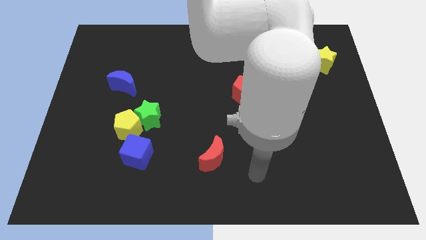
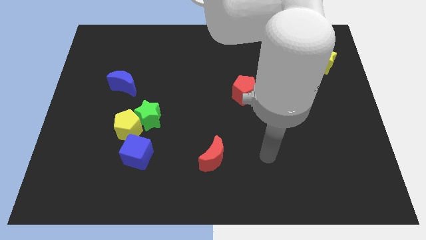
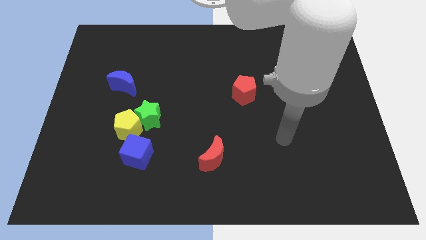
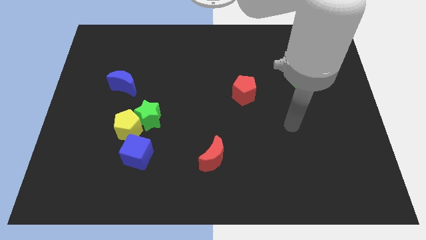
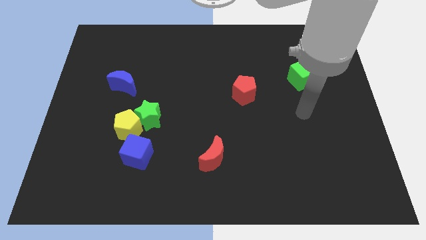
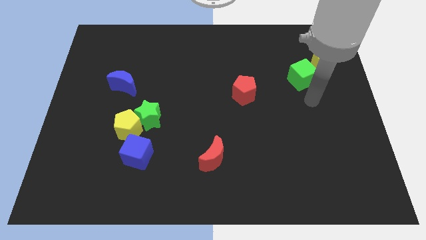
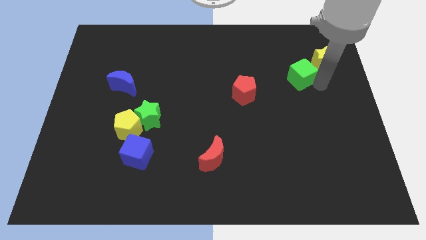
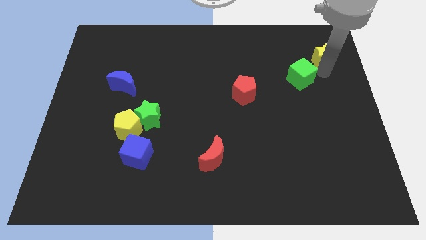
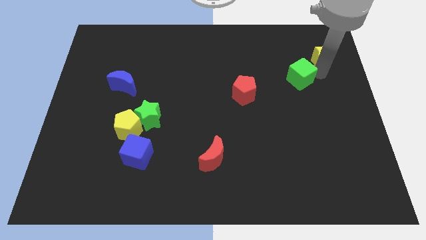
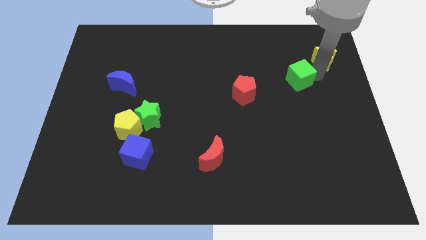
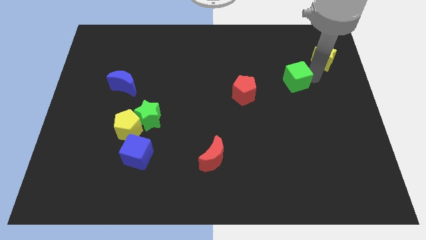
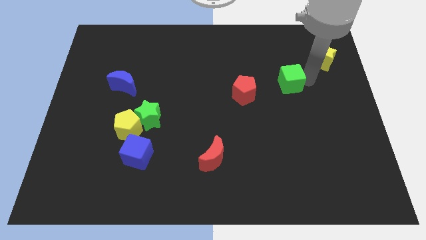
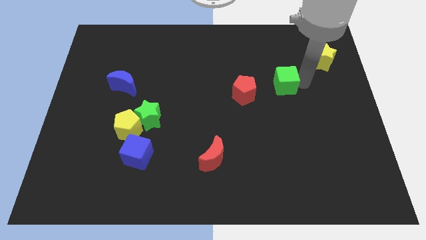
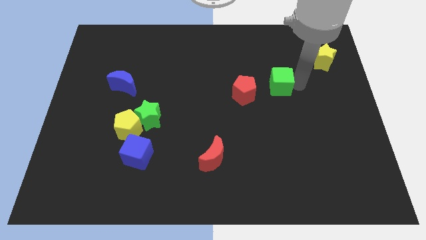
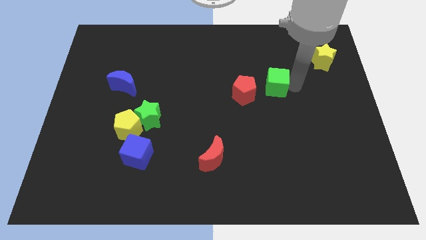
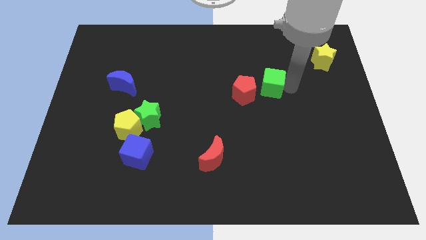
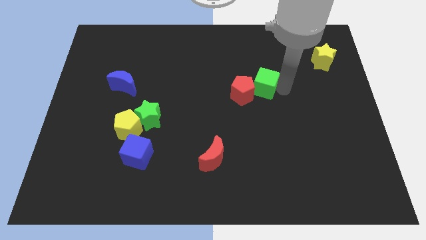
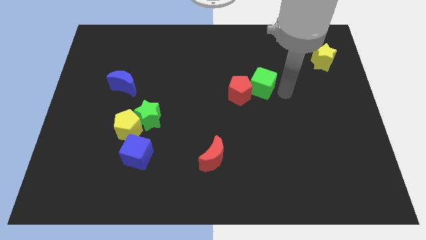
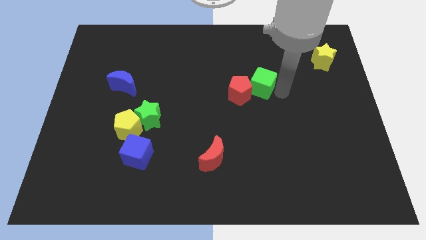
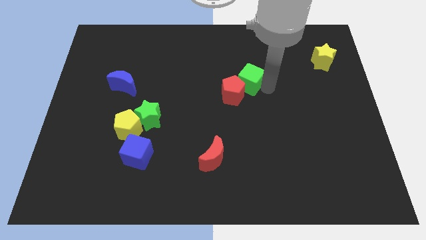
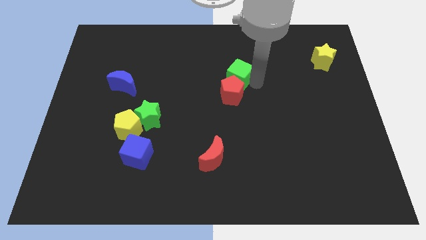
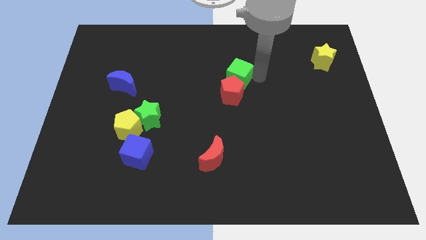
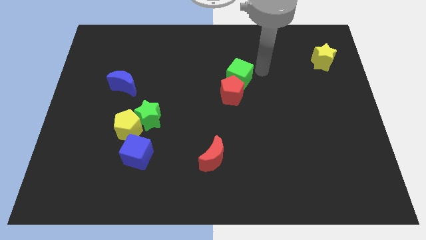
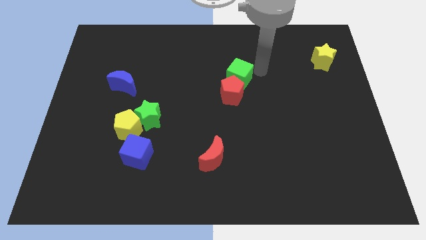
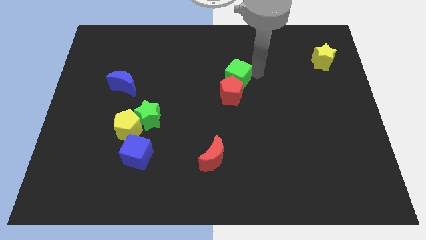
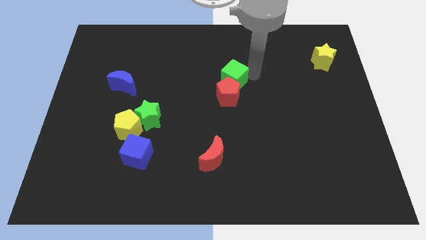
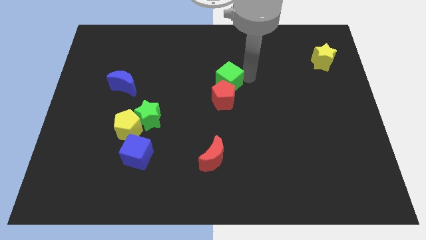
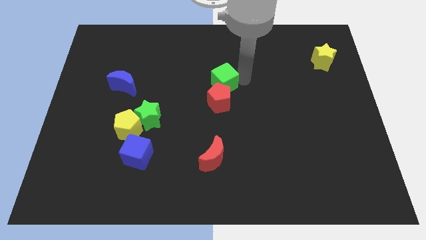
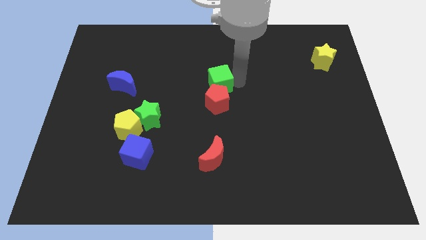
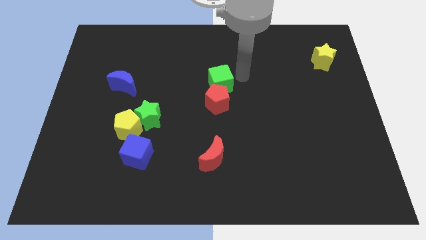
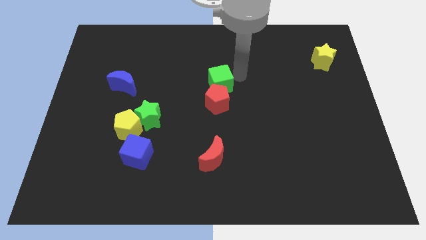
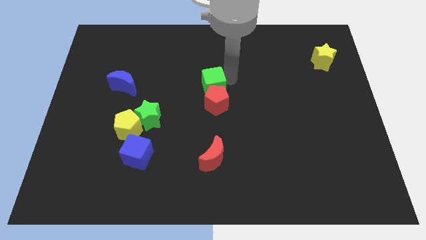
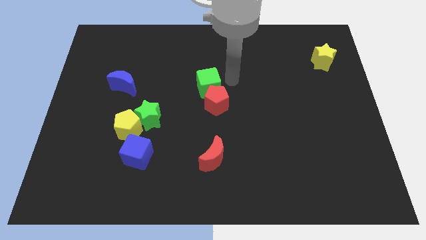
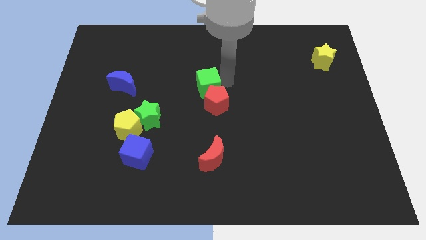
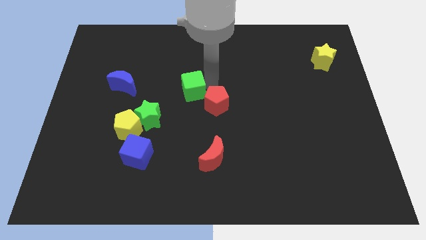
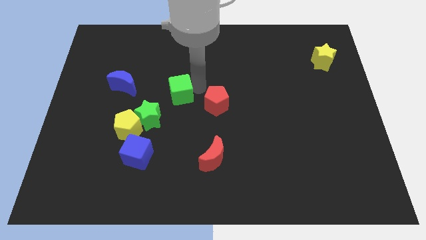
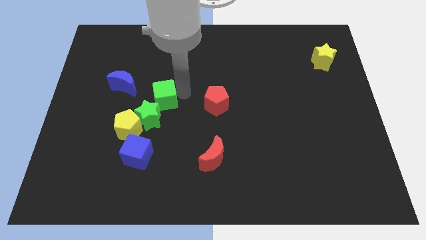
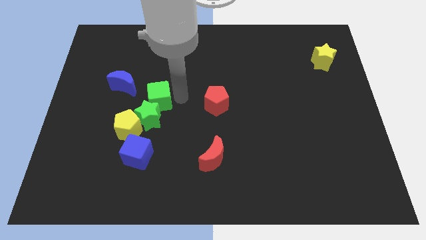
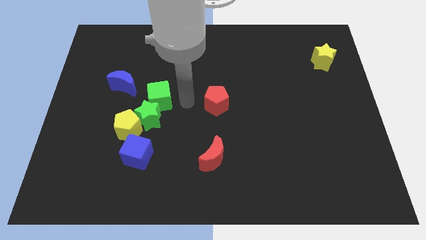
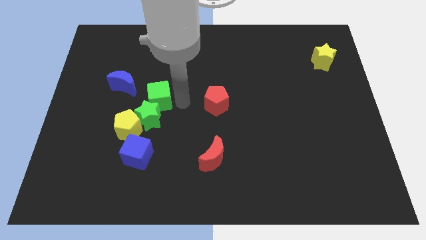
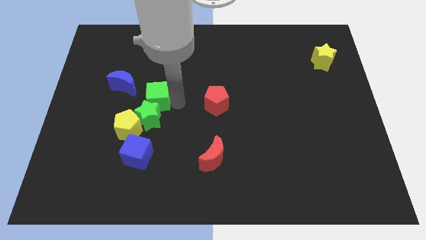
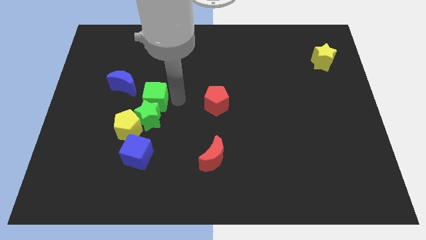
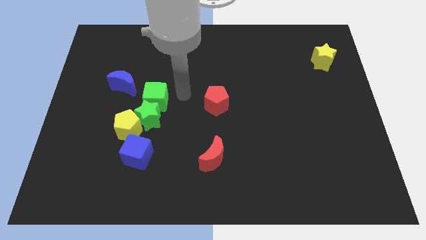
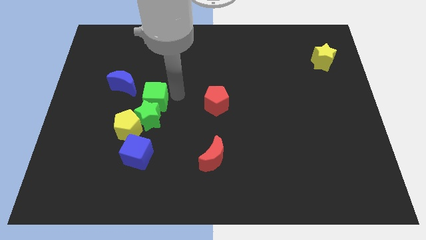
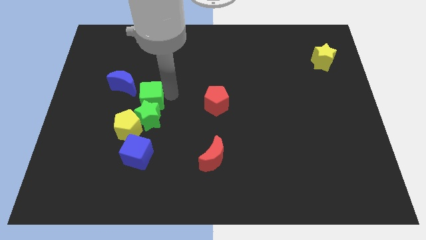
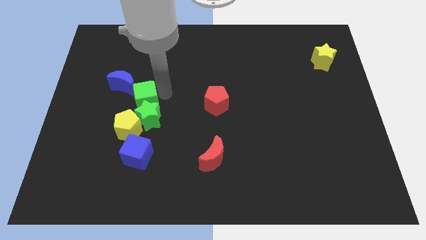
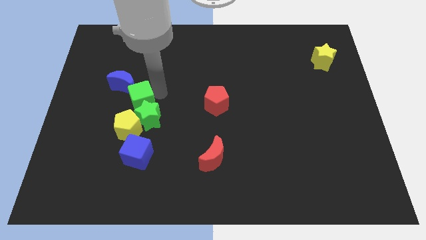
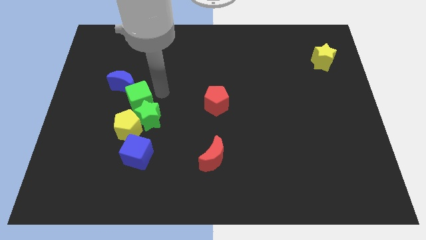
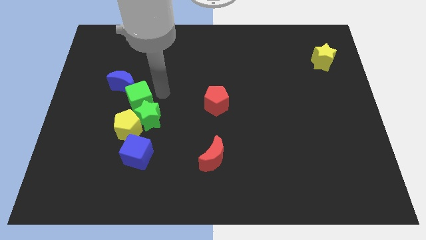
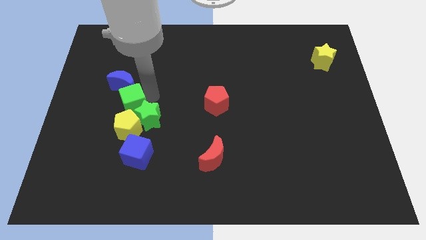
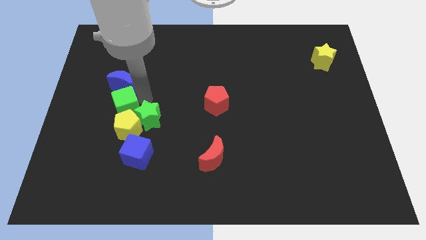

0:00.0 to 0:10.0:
put the green cube to the top left side of the yellow pentagon

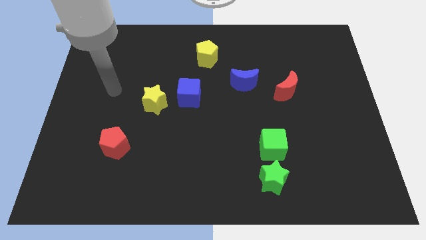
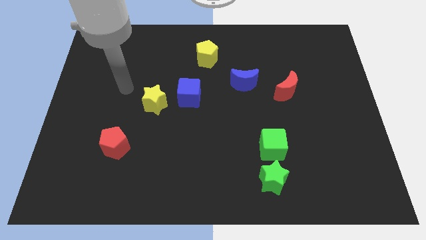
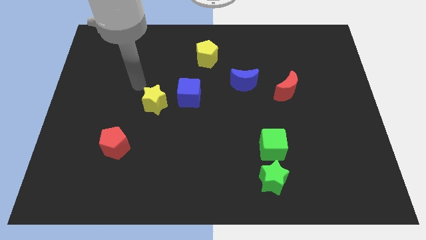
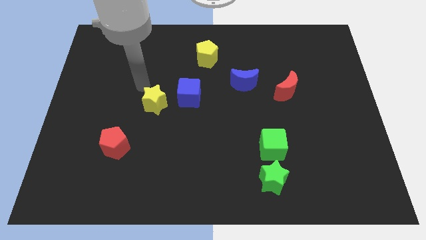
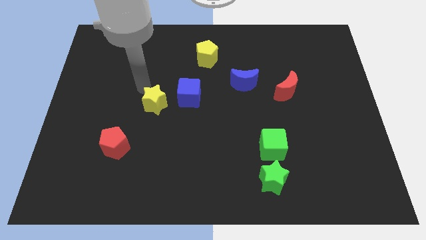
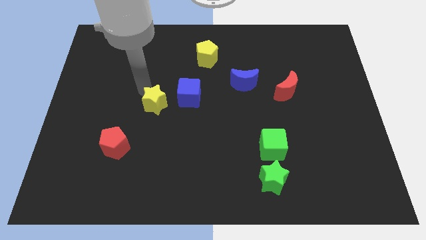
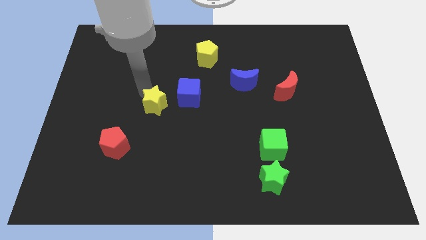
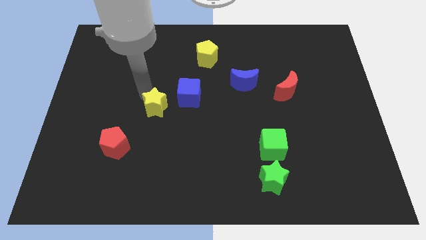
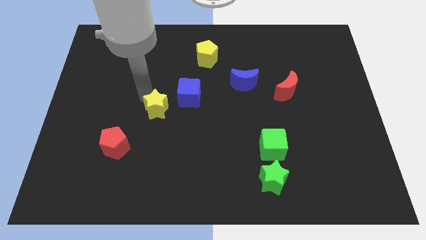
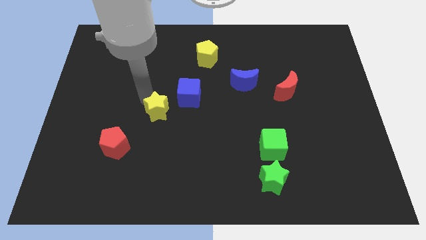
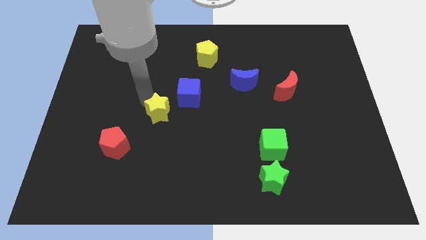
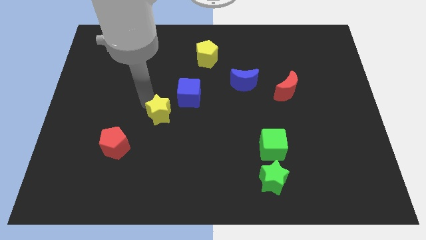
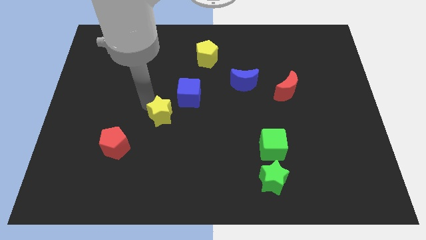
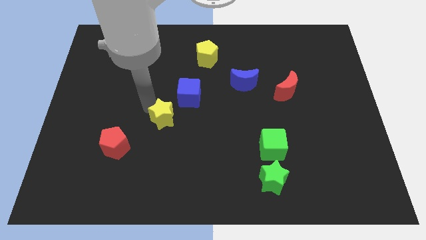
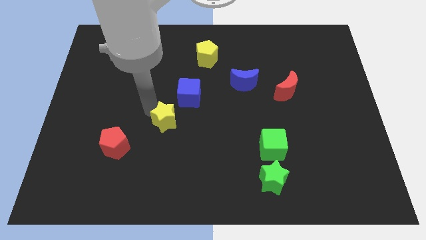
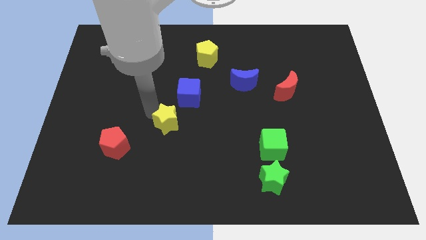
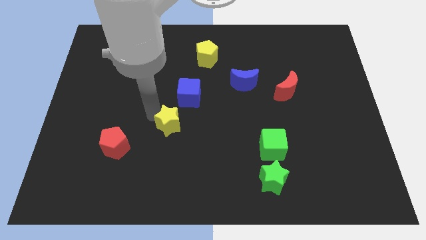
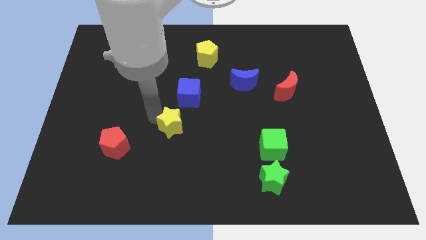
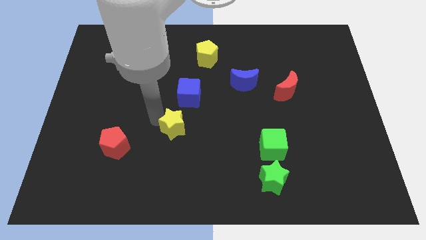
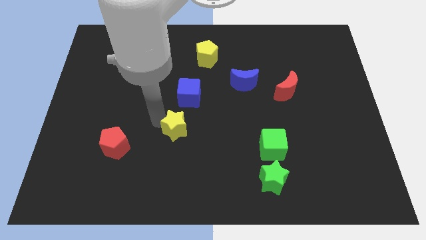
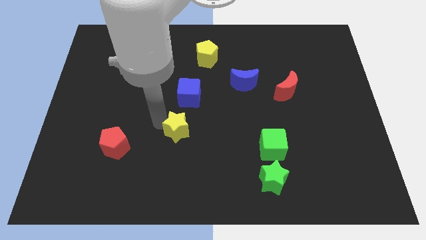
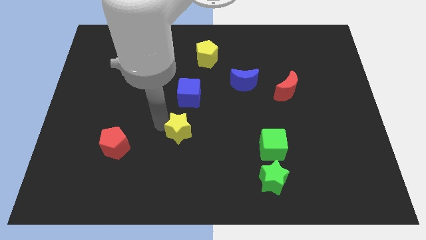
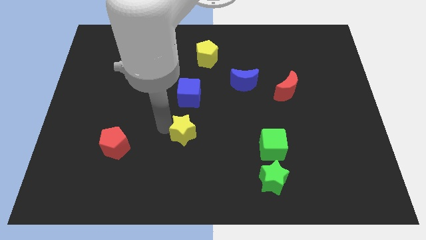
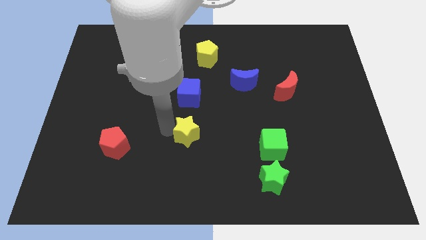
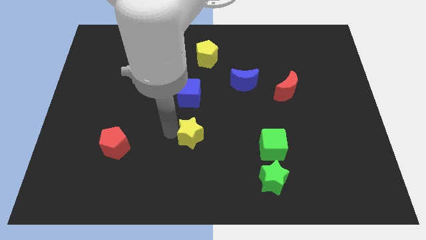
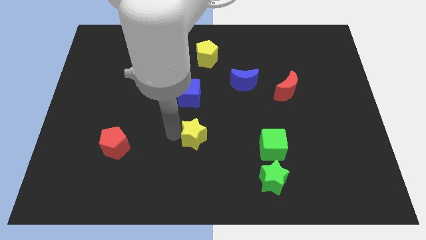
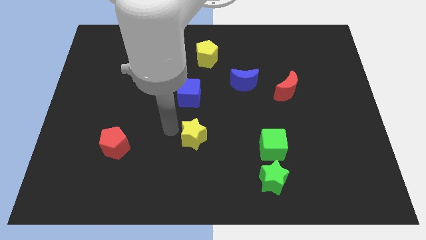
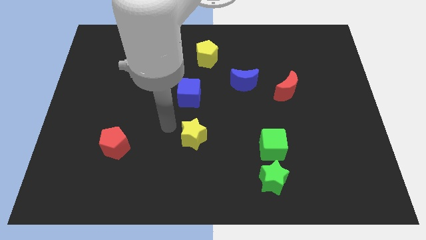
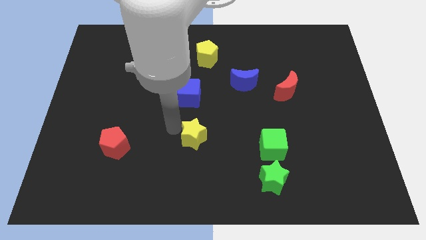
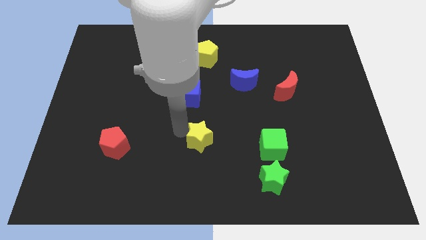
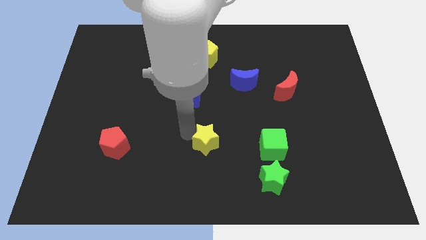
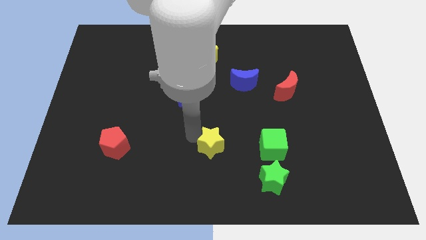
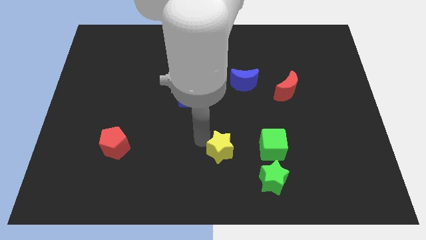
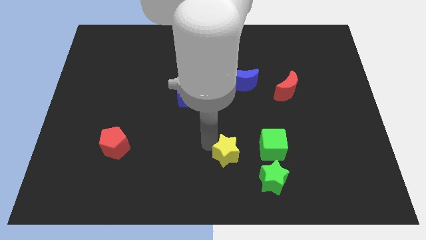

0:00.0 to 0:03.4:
push the yellow star to the top left side of the green star
